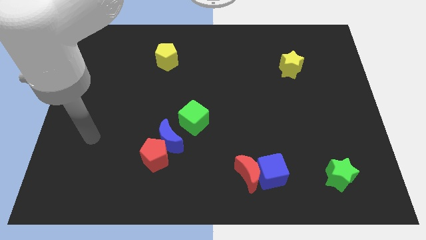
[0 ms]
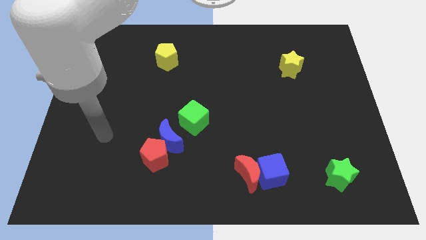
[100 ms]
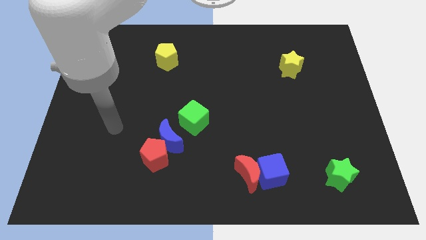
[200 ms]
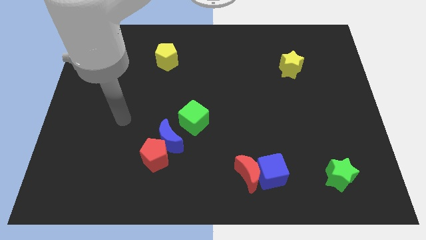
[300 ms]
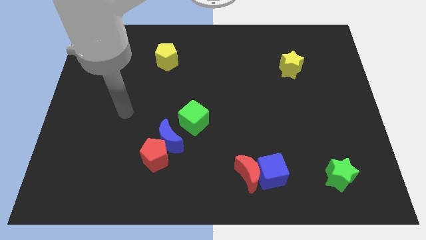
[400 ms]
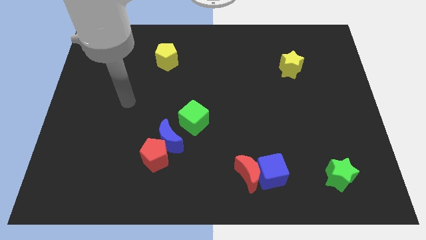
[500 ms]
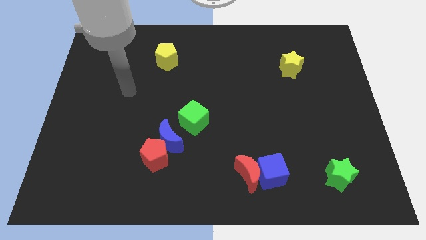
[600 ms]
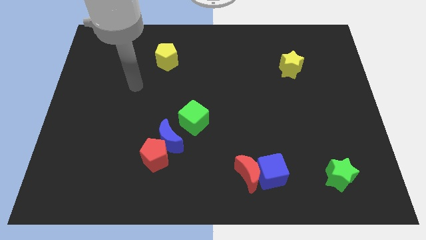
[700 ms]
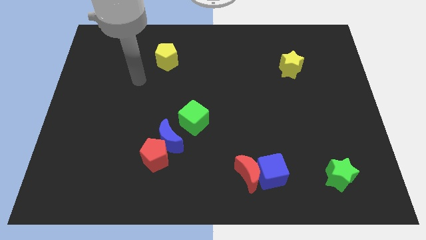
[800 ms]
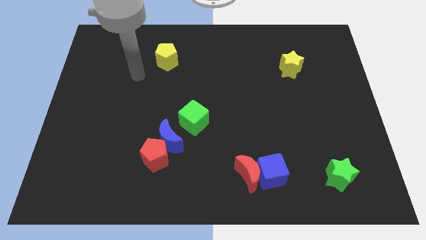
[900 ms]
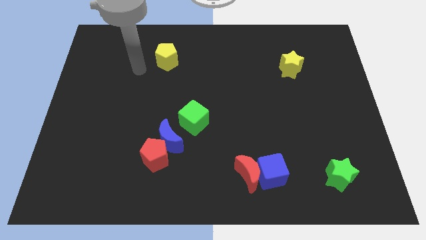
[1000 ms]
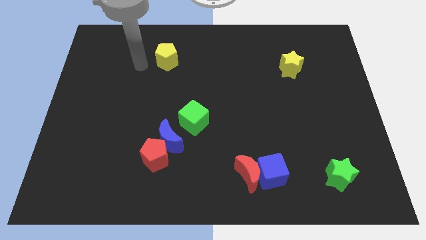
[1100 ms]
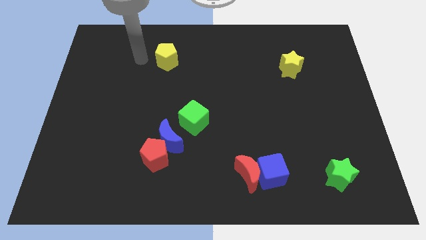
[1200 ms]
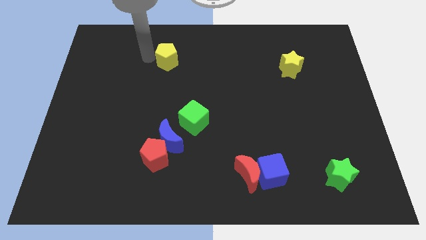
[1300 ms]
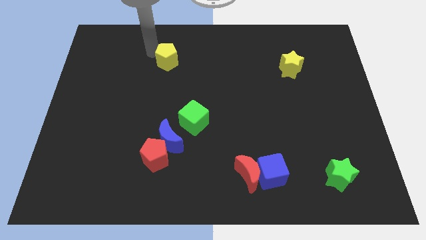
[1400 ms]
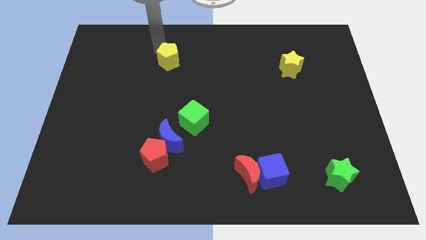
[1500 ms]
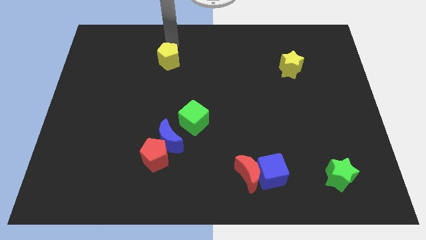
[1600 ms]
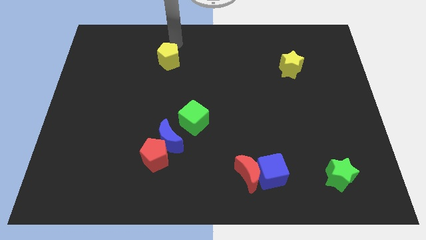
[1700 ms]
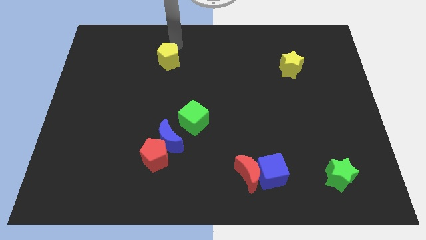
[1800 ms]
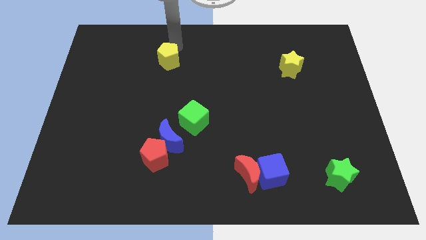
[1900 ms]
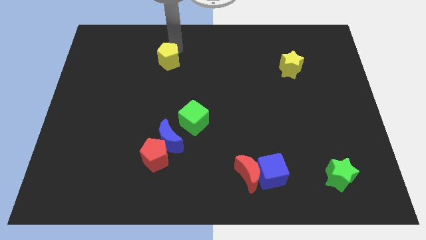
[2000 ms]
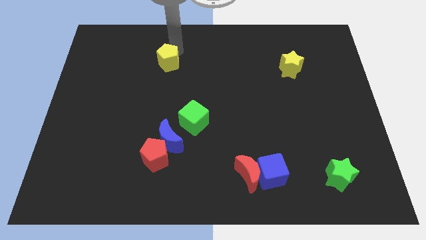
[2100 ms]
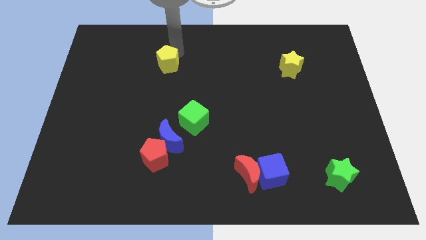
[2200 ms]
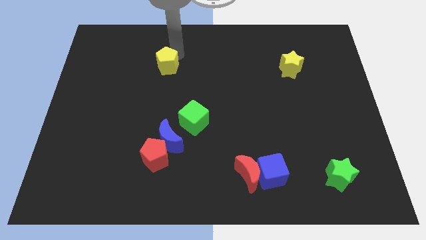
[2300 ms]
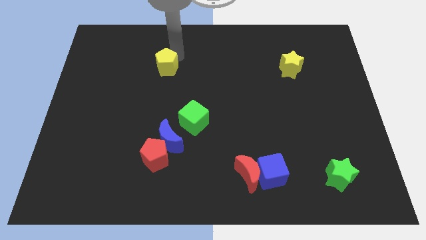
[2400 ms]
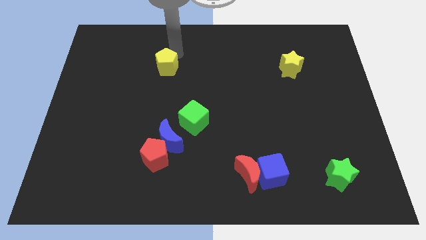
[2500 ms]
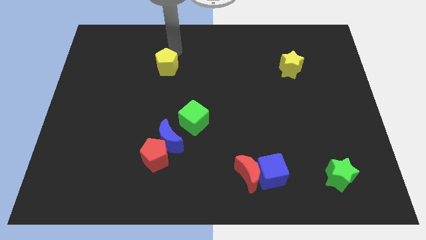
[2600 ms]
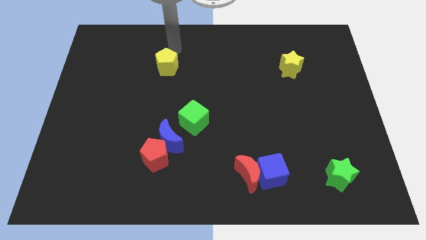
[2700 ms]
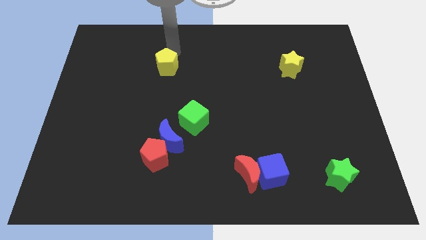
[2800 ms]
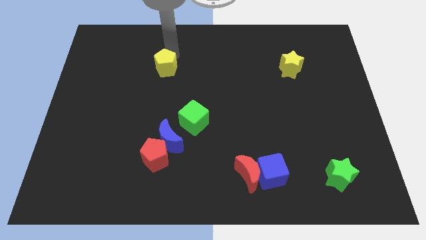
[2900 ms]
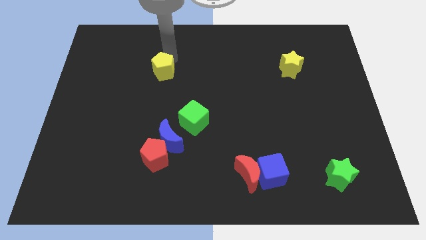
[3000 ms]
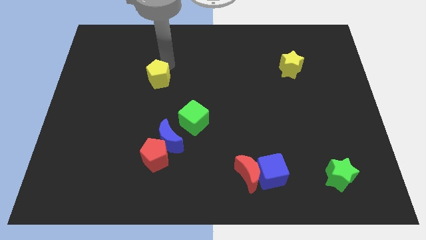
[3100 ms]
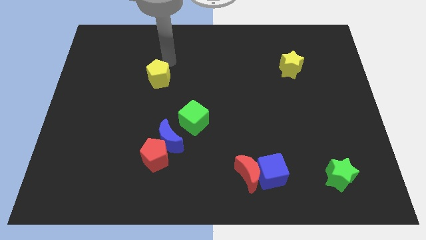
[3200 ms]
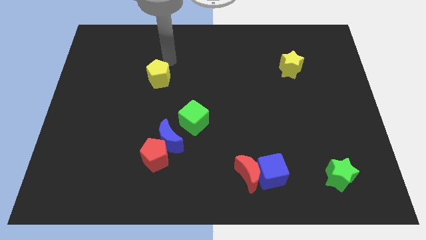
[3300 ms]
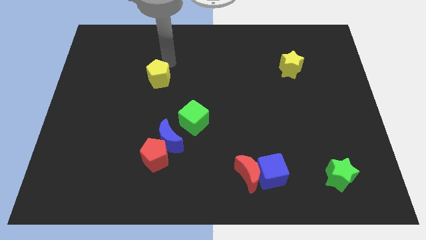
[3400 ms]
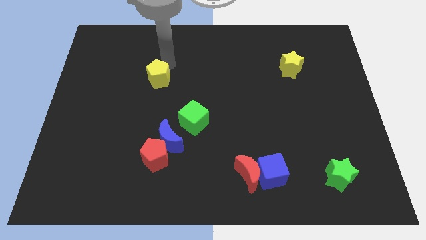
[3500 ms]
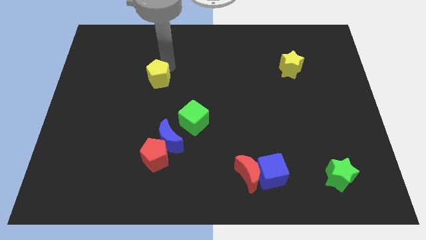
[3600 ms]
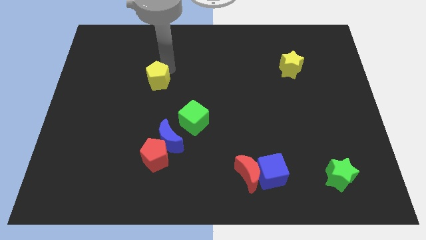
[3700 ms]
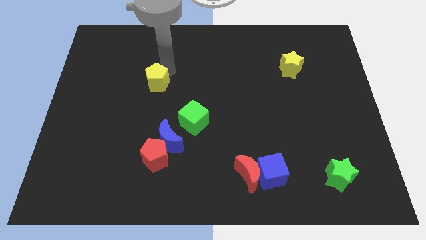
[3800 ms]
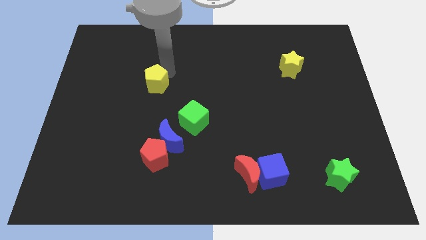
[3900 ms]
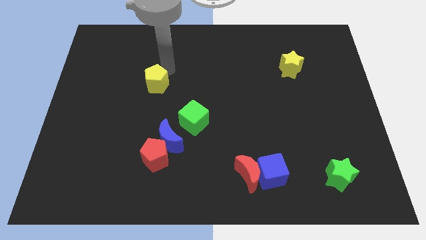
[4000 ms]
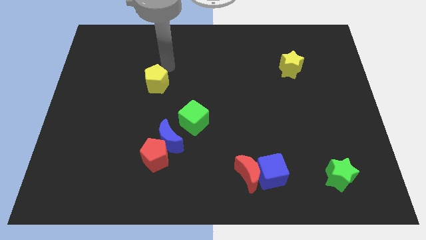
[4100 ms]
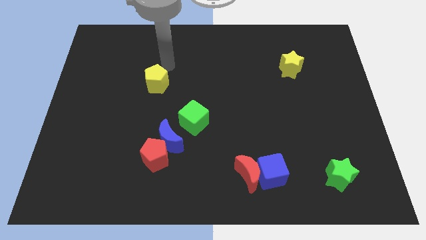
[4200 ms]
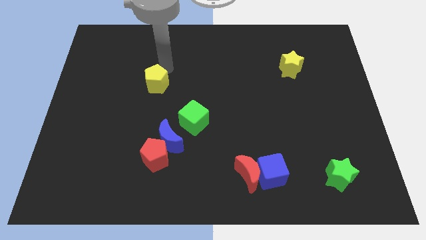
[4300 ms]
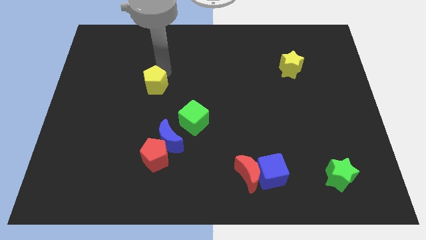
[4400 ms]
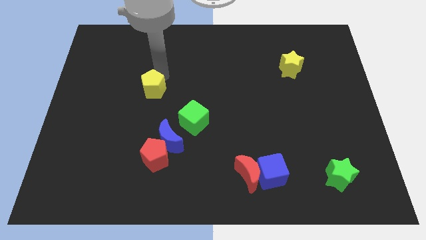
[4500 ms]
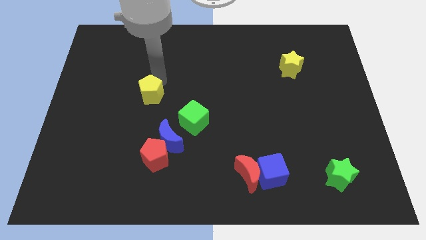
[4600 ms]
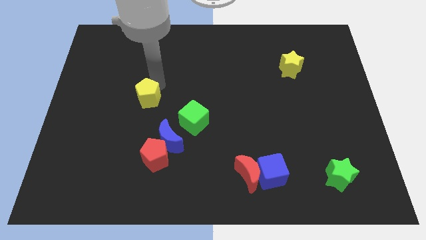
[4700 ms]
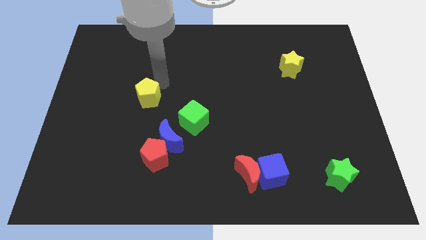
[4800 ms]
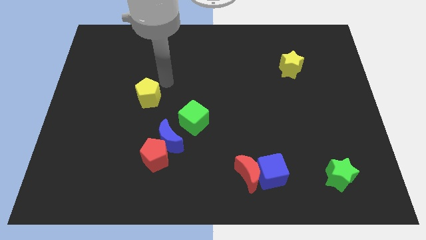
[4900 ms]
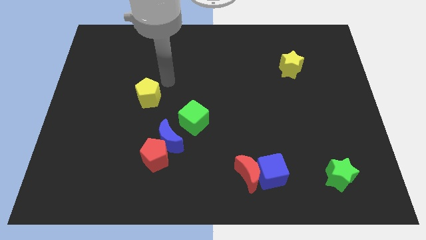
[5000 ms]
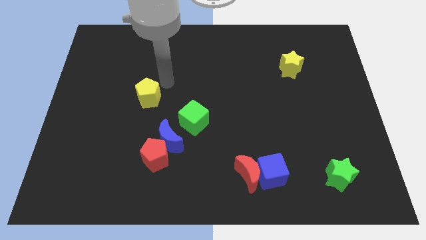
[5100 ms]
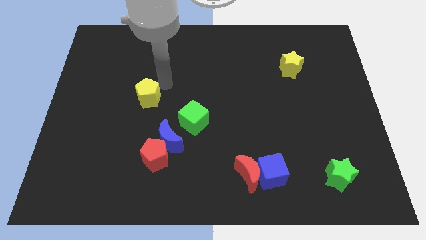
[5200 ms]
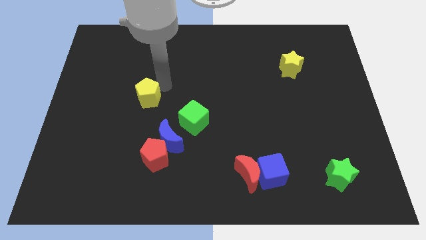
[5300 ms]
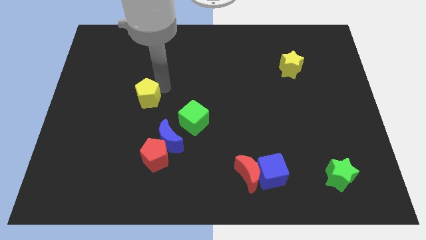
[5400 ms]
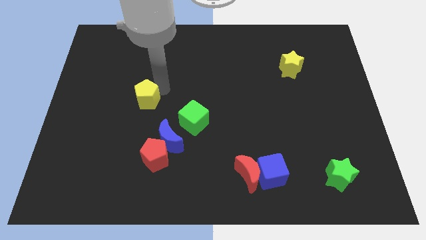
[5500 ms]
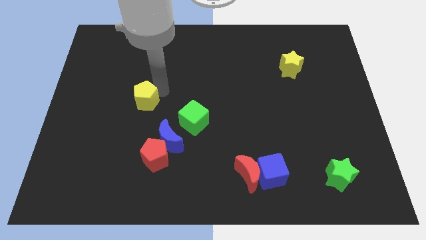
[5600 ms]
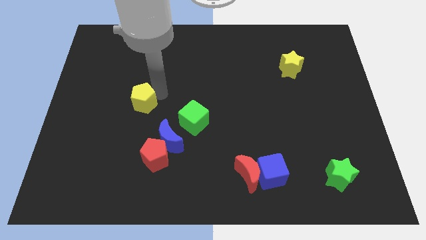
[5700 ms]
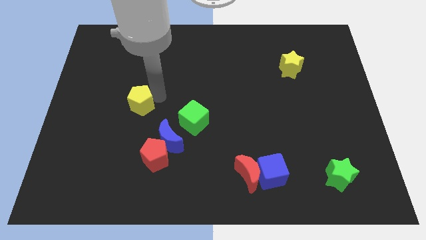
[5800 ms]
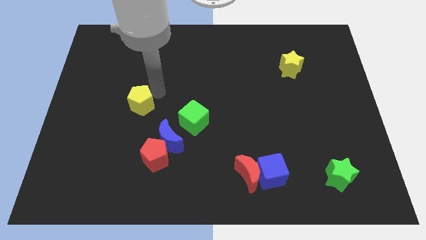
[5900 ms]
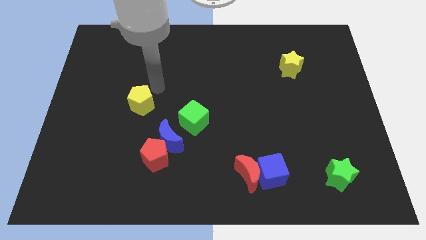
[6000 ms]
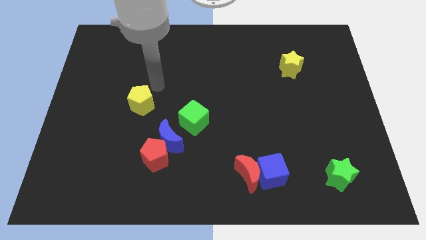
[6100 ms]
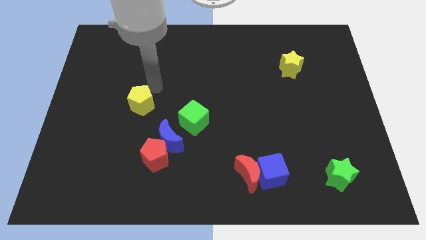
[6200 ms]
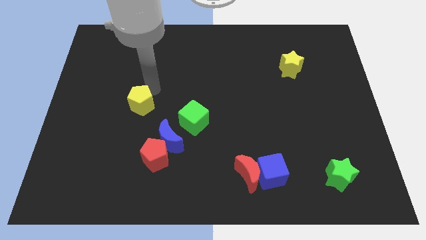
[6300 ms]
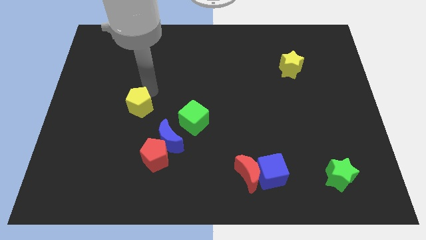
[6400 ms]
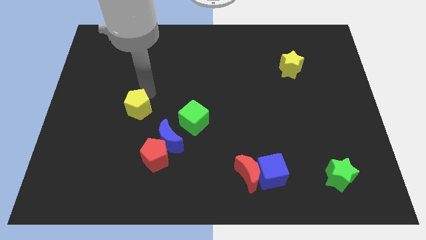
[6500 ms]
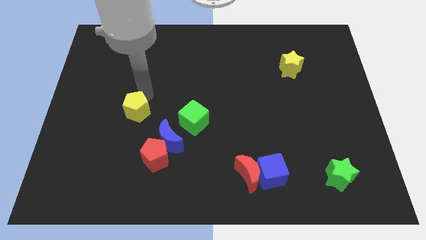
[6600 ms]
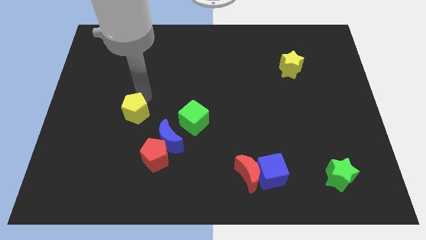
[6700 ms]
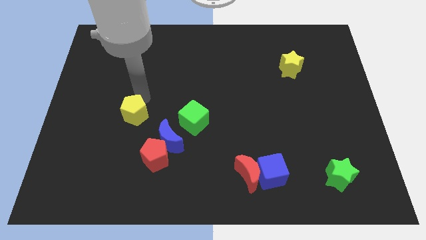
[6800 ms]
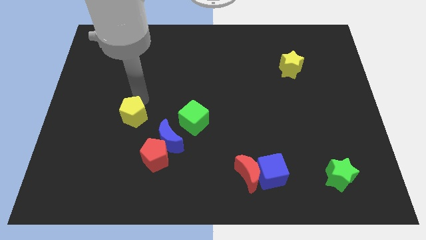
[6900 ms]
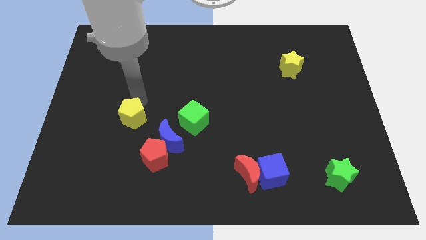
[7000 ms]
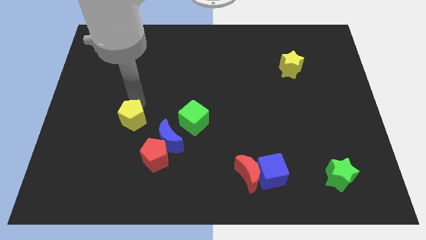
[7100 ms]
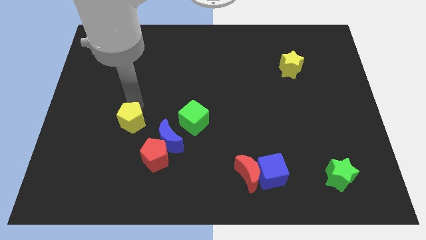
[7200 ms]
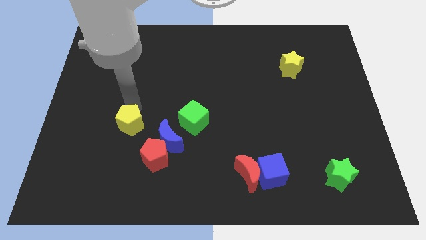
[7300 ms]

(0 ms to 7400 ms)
move the yellow pentagon just left of the blue moon
